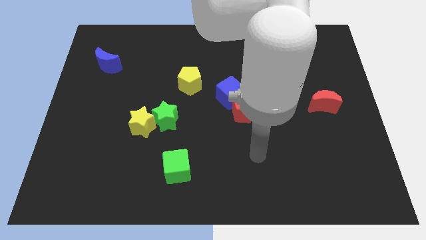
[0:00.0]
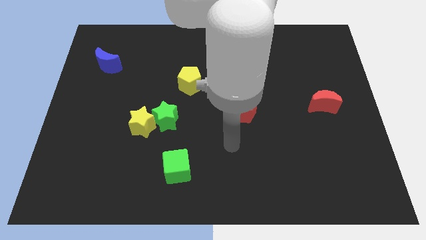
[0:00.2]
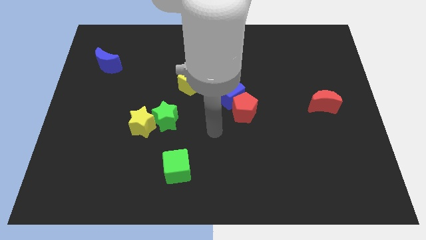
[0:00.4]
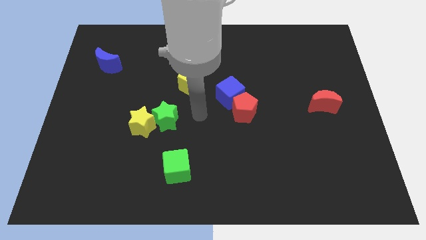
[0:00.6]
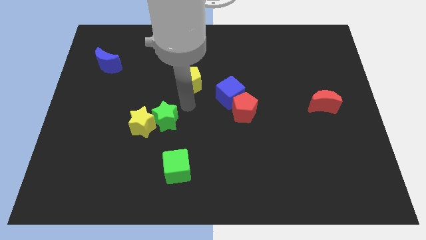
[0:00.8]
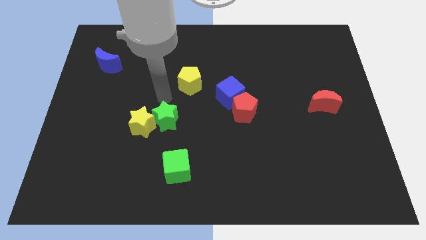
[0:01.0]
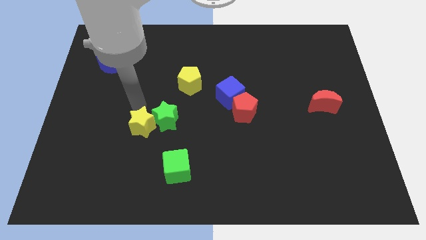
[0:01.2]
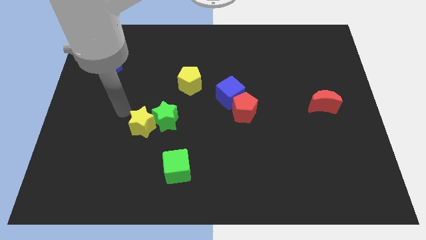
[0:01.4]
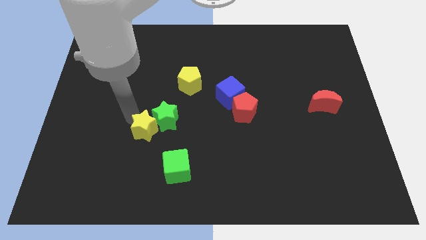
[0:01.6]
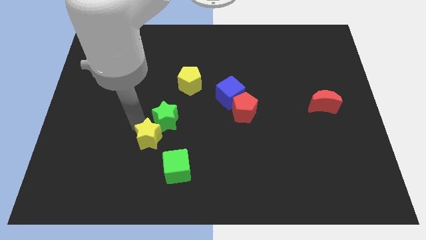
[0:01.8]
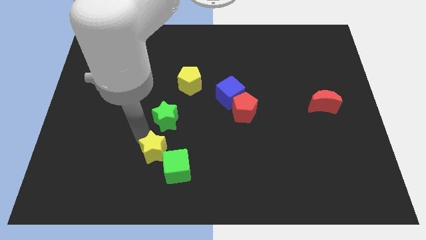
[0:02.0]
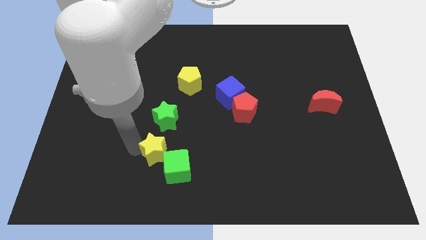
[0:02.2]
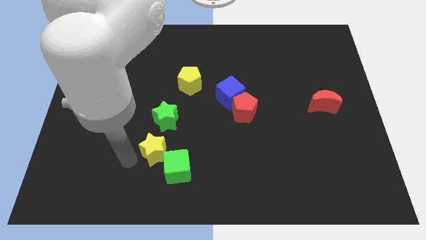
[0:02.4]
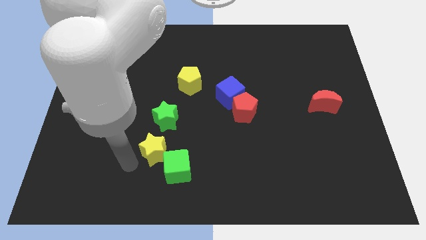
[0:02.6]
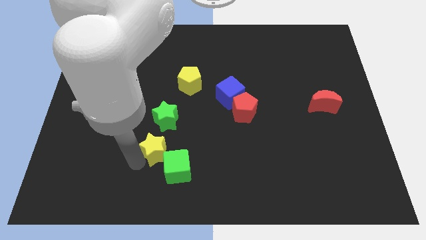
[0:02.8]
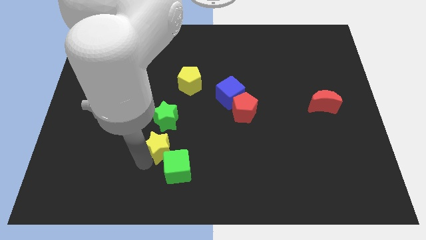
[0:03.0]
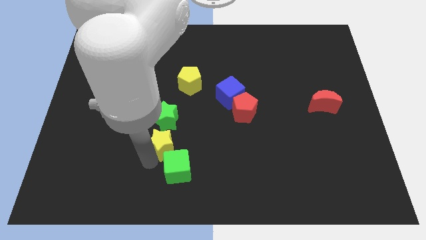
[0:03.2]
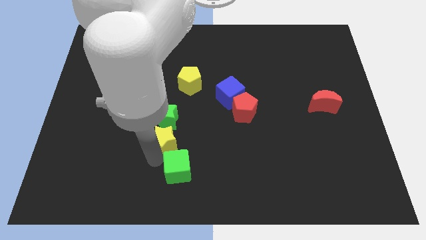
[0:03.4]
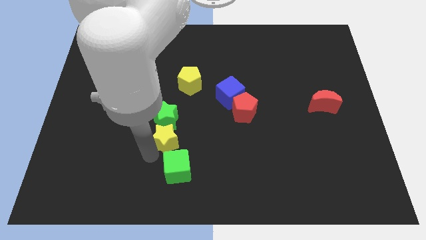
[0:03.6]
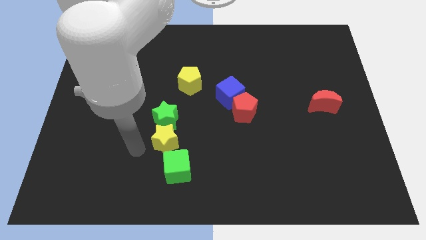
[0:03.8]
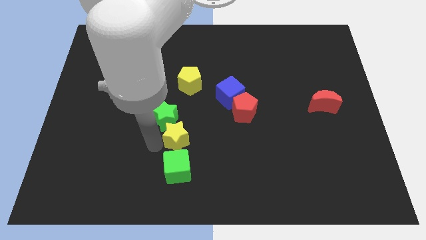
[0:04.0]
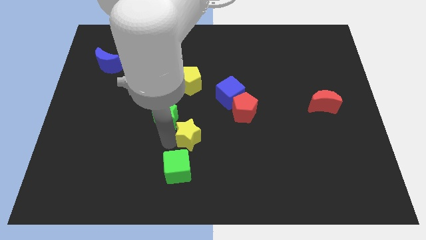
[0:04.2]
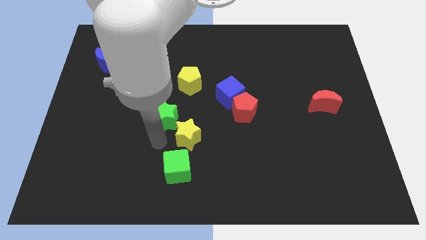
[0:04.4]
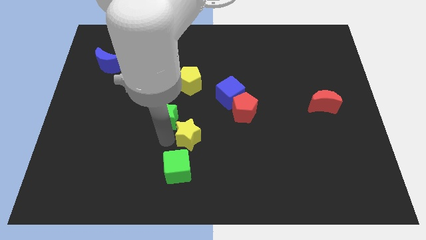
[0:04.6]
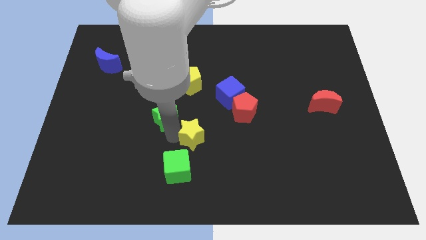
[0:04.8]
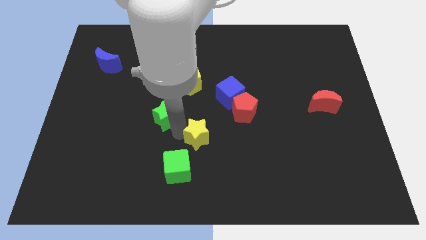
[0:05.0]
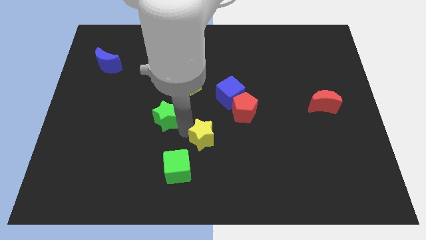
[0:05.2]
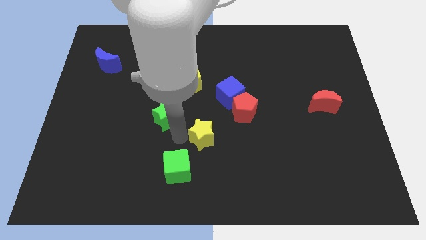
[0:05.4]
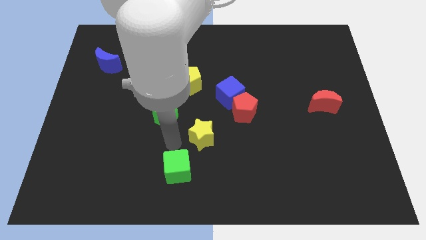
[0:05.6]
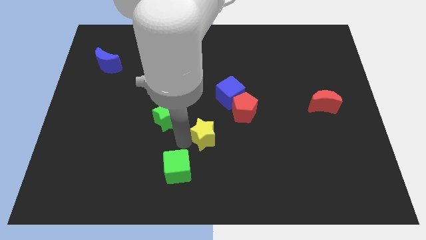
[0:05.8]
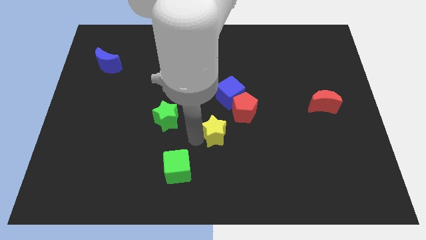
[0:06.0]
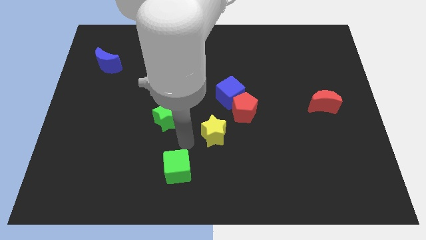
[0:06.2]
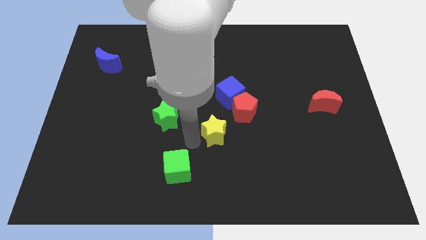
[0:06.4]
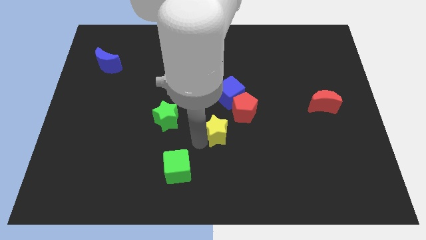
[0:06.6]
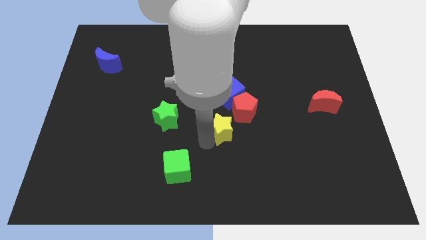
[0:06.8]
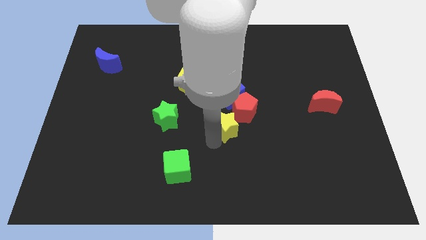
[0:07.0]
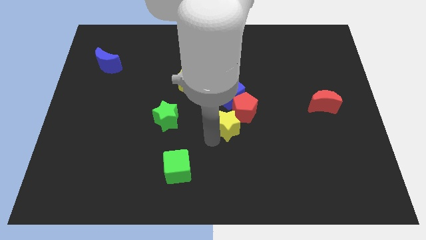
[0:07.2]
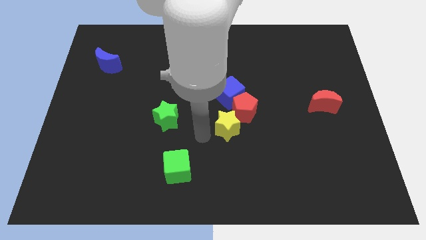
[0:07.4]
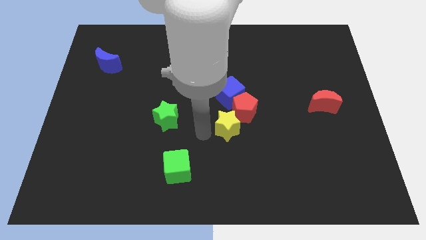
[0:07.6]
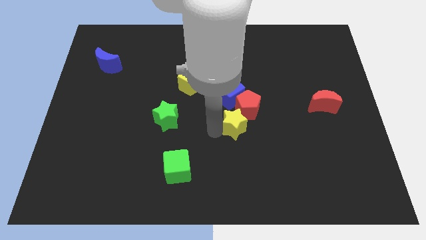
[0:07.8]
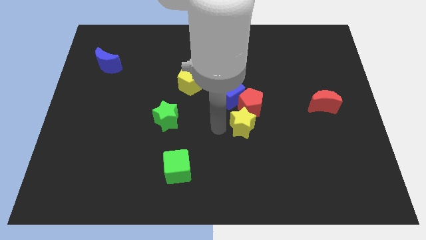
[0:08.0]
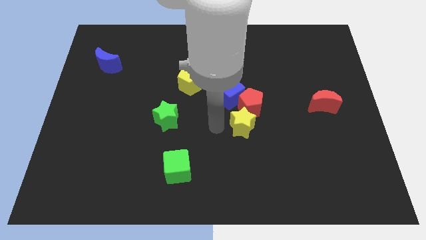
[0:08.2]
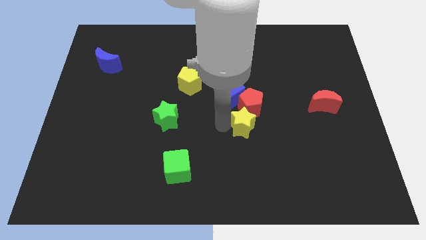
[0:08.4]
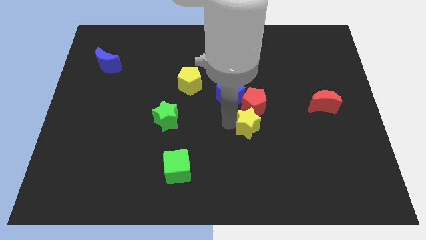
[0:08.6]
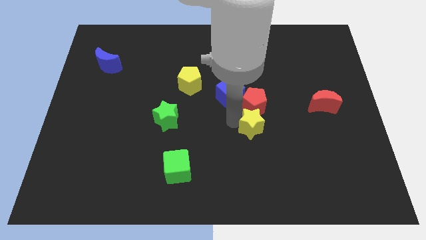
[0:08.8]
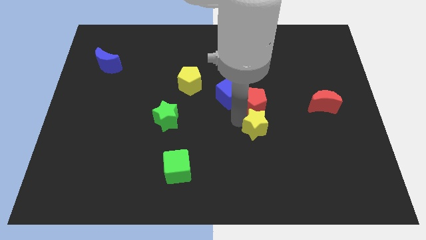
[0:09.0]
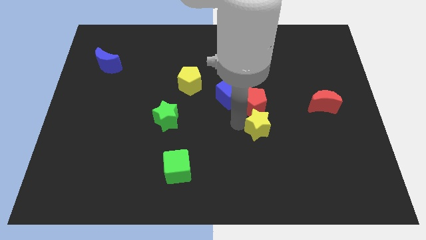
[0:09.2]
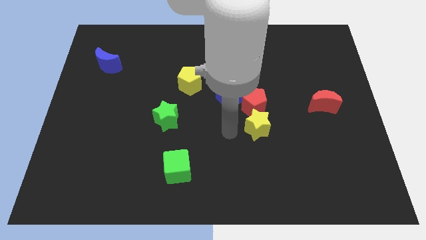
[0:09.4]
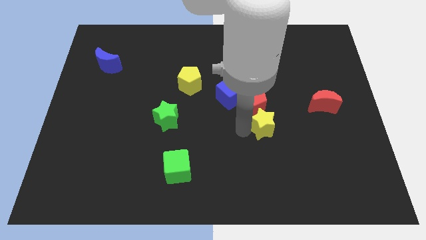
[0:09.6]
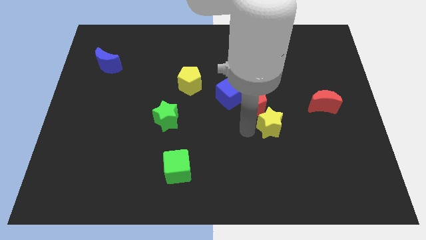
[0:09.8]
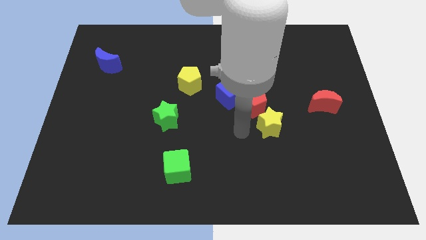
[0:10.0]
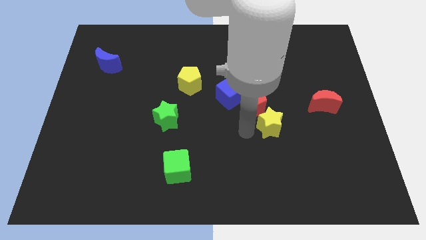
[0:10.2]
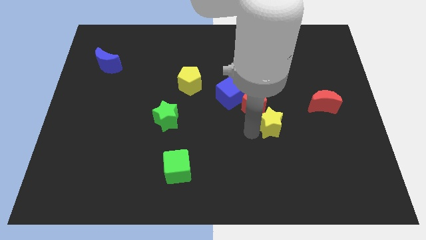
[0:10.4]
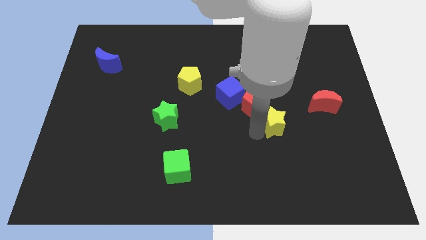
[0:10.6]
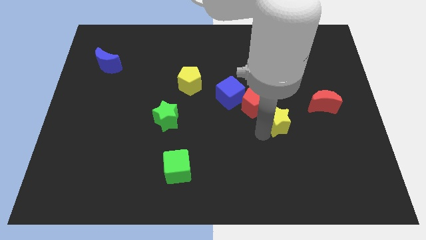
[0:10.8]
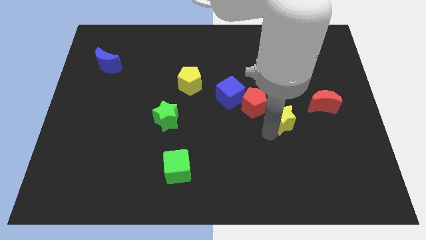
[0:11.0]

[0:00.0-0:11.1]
put the yellow star to the bottom left side of the red moon

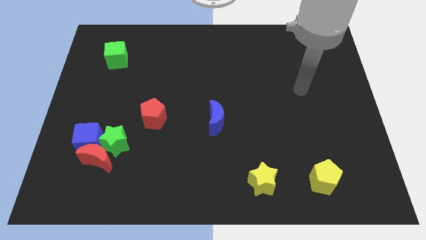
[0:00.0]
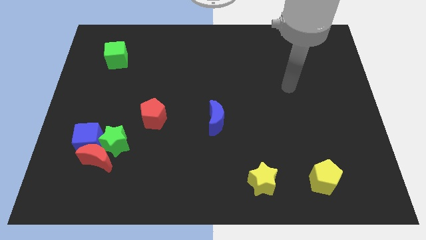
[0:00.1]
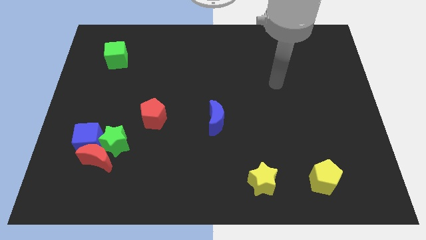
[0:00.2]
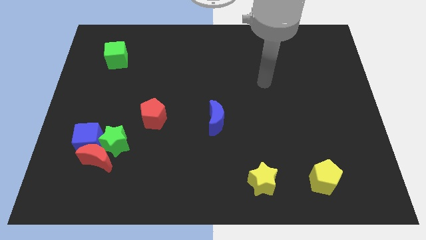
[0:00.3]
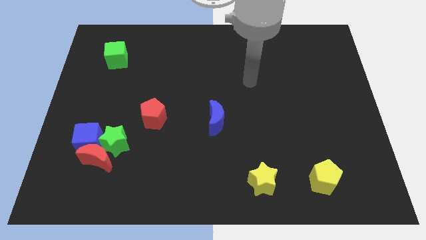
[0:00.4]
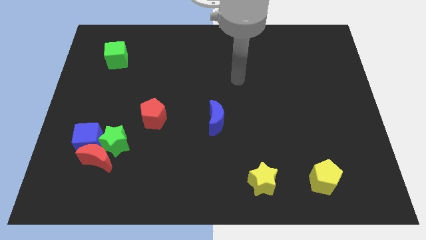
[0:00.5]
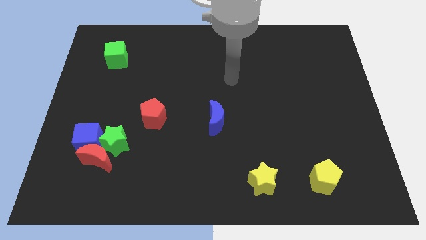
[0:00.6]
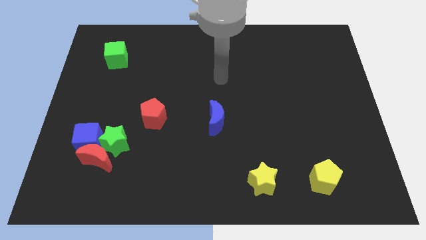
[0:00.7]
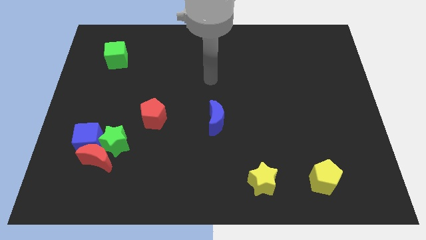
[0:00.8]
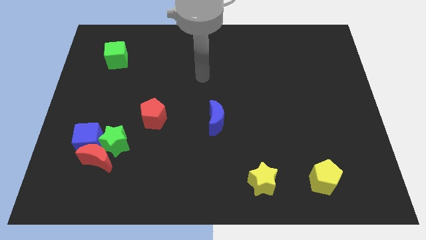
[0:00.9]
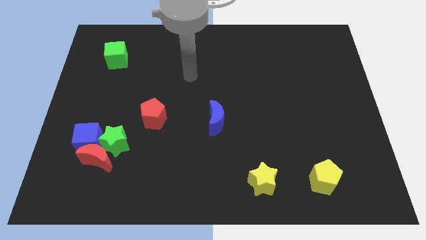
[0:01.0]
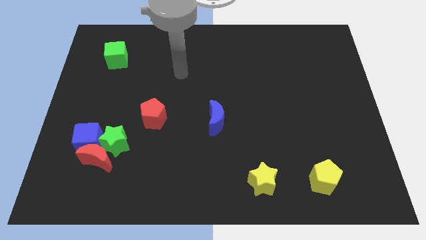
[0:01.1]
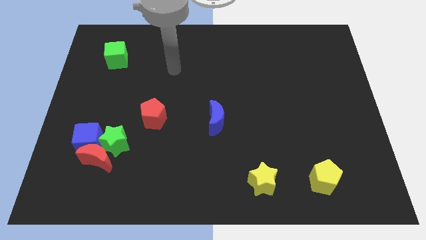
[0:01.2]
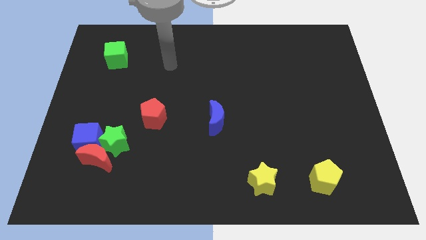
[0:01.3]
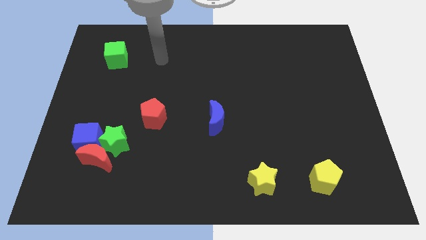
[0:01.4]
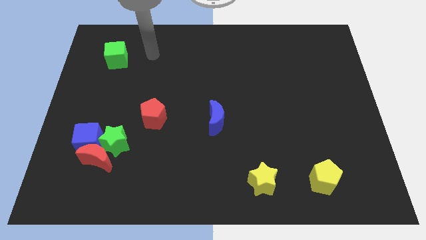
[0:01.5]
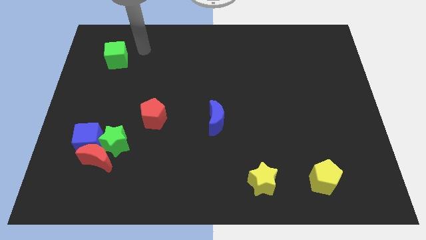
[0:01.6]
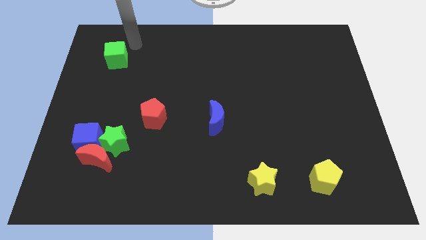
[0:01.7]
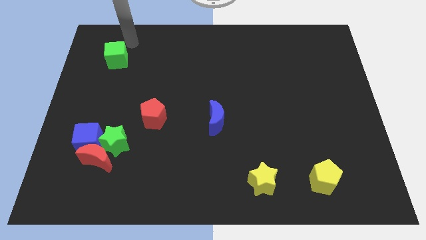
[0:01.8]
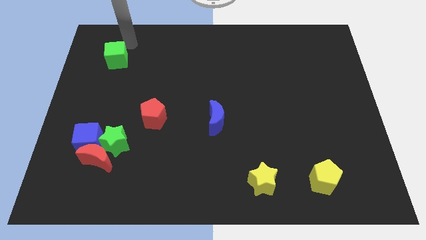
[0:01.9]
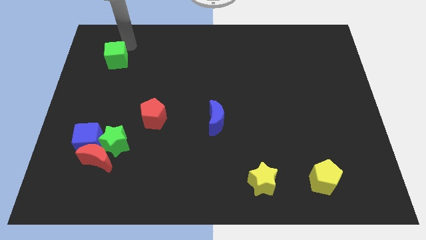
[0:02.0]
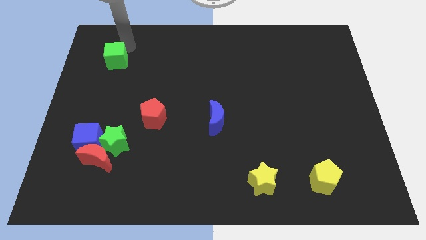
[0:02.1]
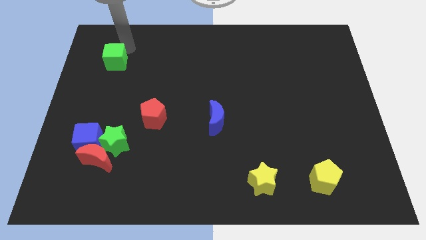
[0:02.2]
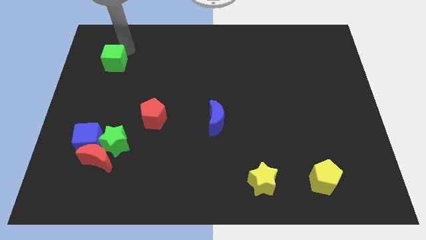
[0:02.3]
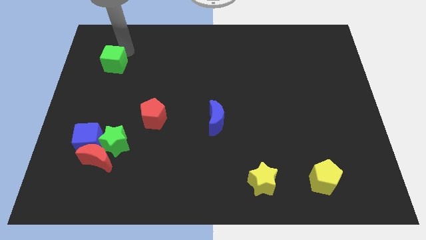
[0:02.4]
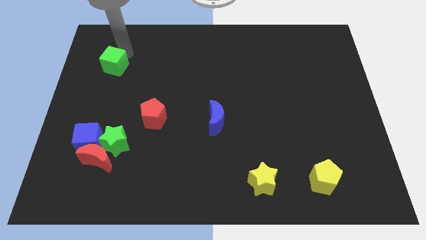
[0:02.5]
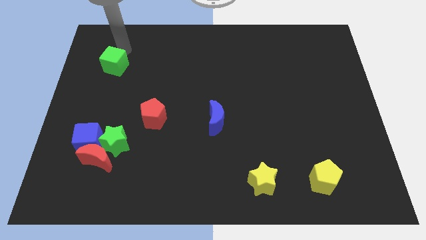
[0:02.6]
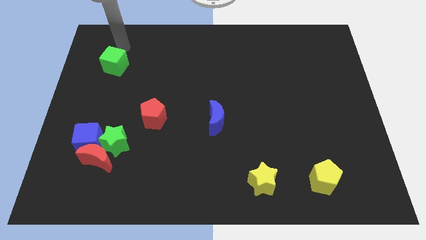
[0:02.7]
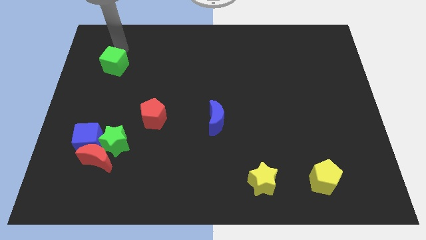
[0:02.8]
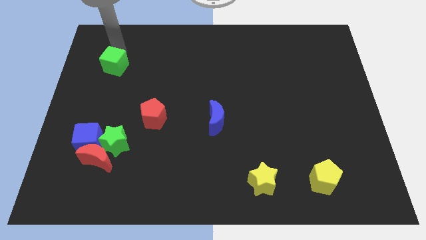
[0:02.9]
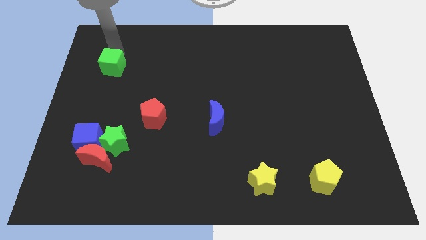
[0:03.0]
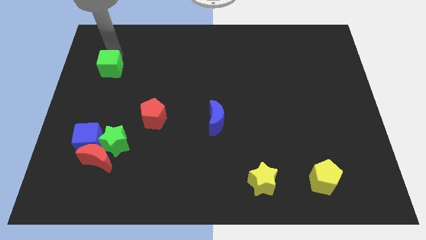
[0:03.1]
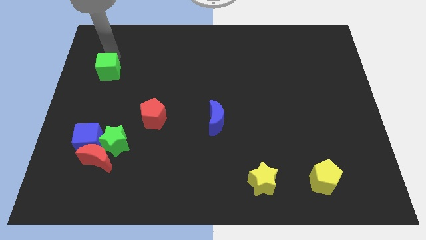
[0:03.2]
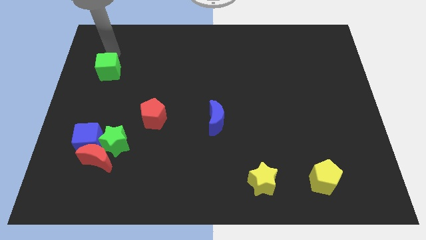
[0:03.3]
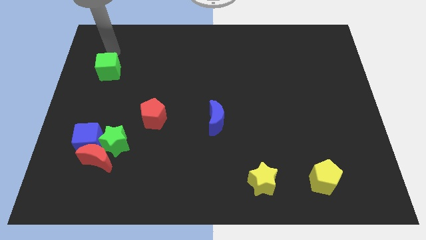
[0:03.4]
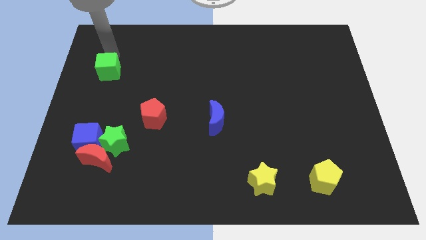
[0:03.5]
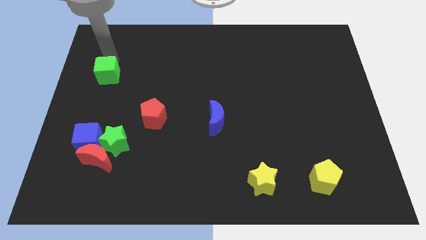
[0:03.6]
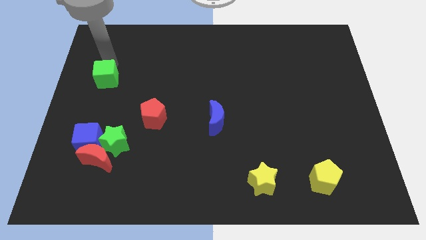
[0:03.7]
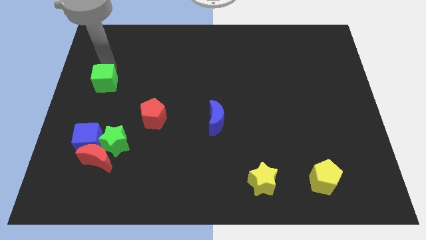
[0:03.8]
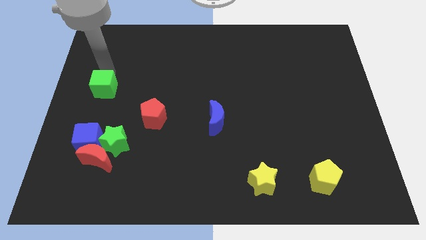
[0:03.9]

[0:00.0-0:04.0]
move the green cube to the top side of the blue cube
